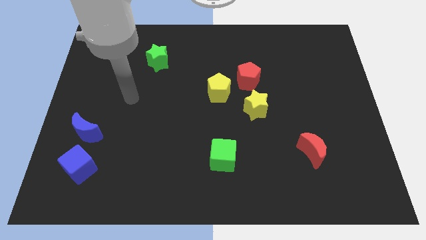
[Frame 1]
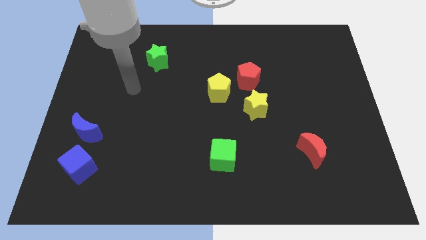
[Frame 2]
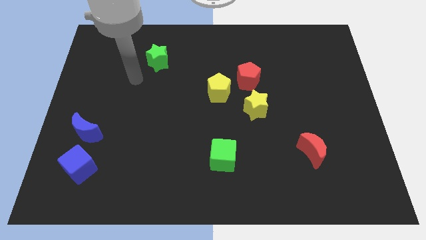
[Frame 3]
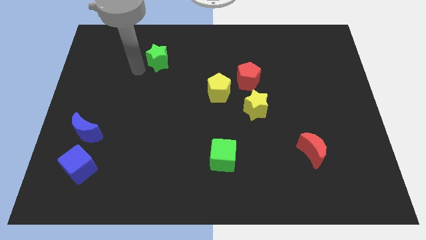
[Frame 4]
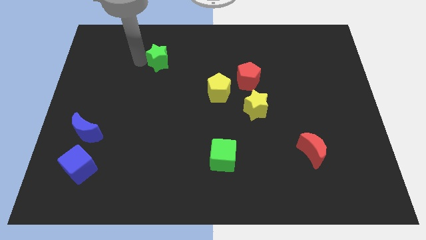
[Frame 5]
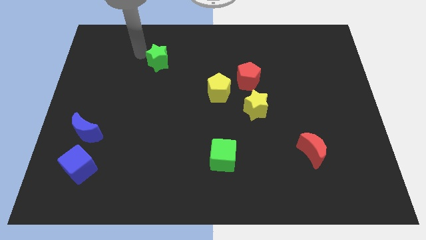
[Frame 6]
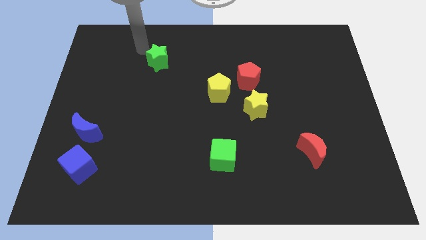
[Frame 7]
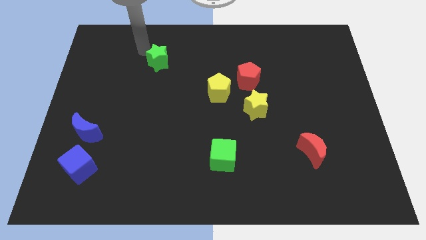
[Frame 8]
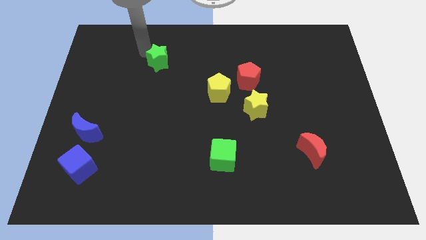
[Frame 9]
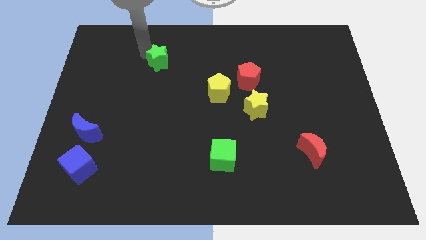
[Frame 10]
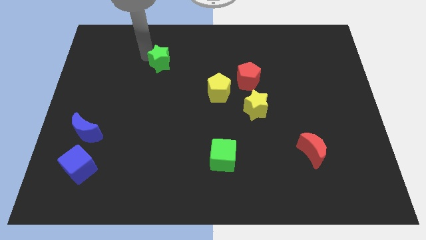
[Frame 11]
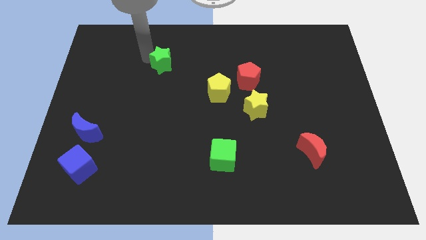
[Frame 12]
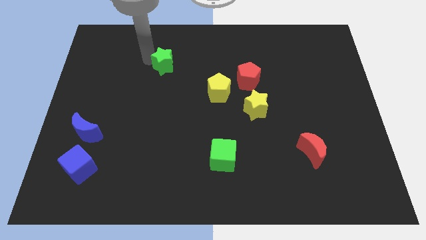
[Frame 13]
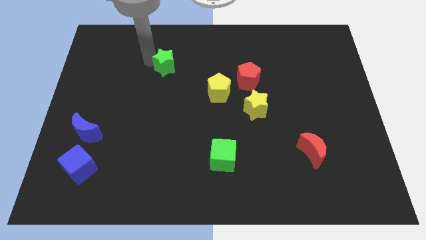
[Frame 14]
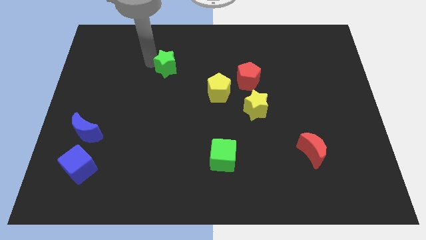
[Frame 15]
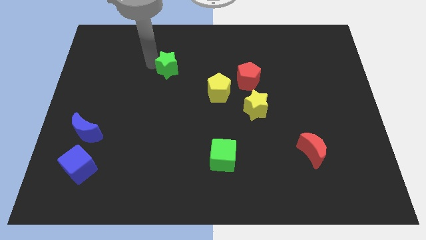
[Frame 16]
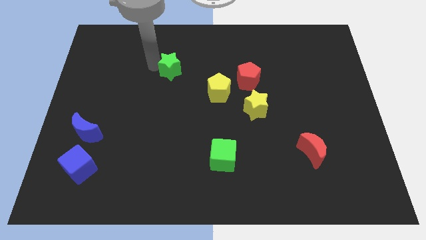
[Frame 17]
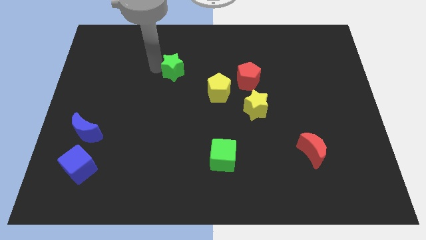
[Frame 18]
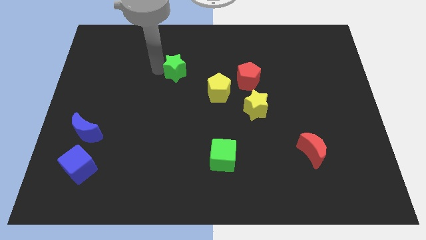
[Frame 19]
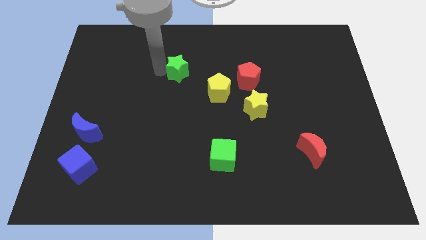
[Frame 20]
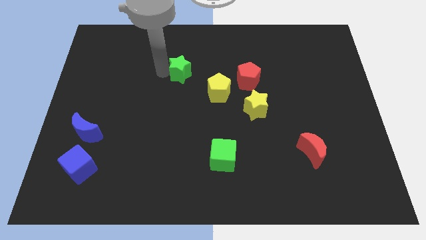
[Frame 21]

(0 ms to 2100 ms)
slightly push the green star downwards and right diagonally

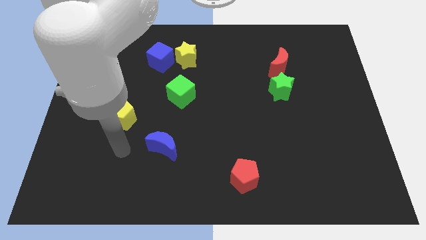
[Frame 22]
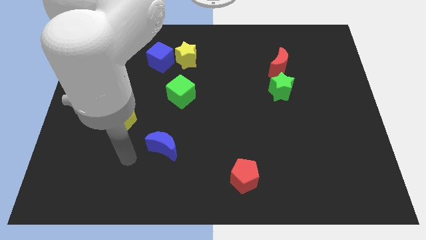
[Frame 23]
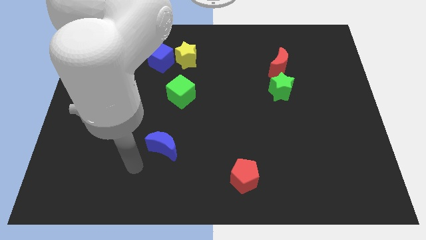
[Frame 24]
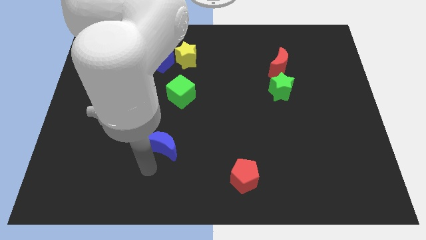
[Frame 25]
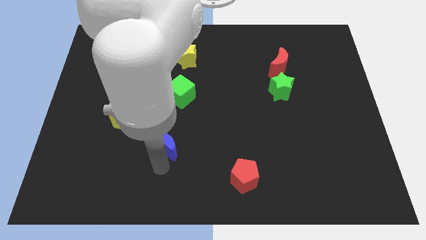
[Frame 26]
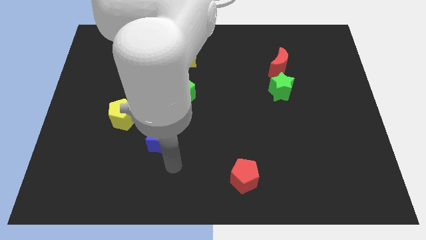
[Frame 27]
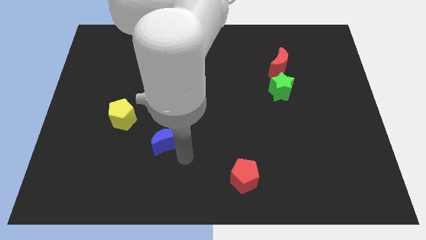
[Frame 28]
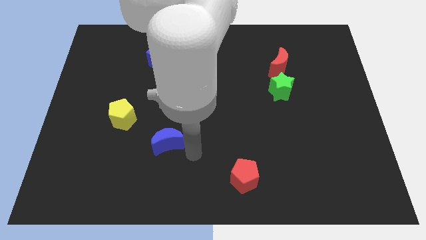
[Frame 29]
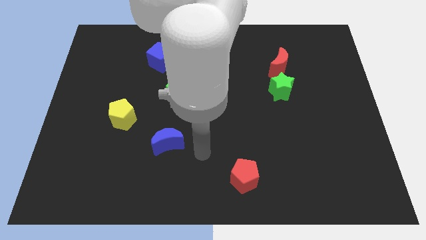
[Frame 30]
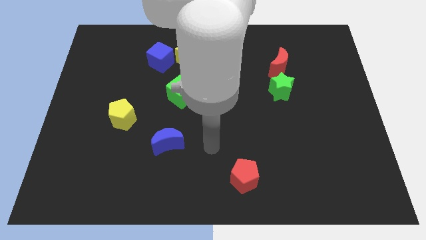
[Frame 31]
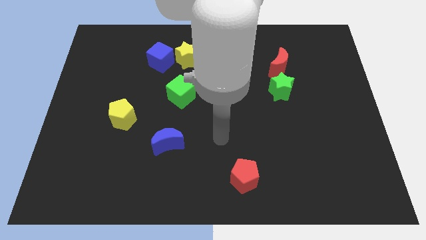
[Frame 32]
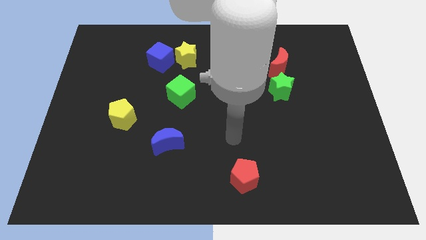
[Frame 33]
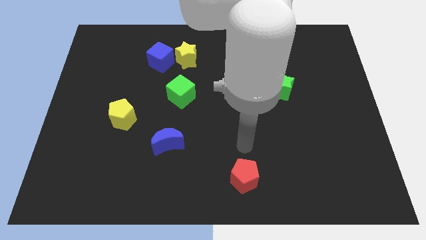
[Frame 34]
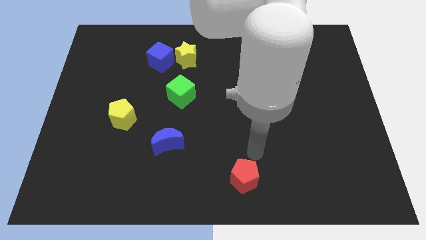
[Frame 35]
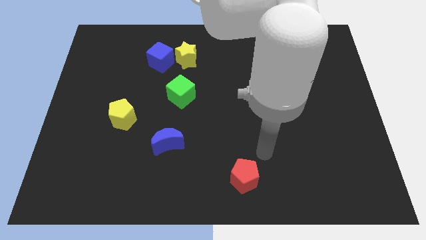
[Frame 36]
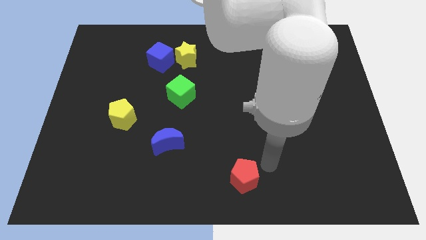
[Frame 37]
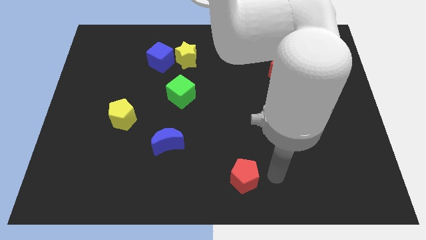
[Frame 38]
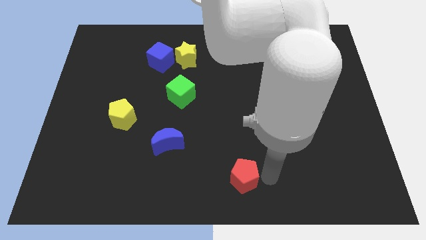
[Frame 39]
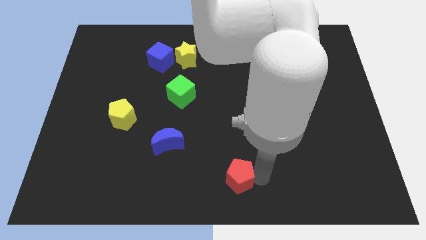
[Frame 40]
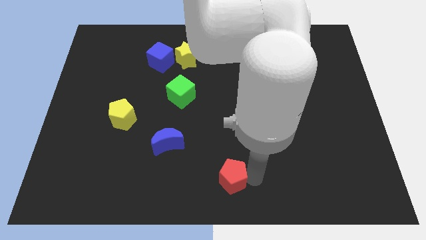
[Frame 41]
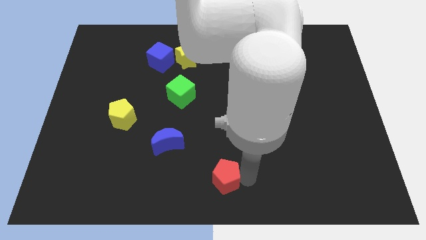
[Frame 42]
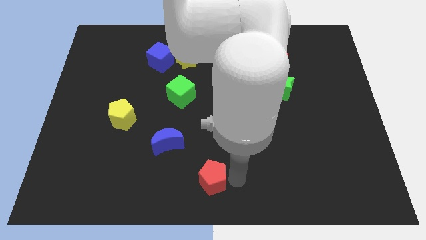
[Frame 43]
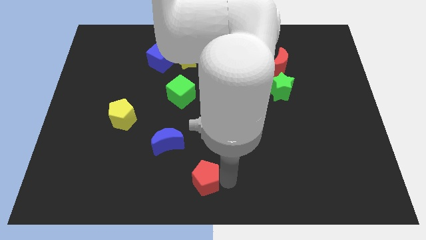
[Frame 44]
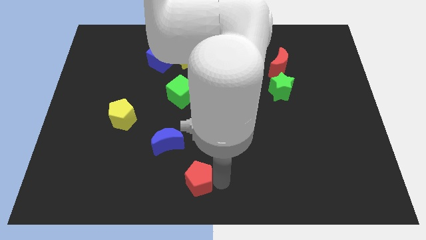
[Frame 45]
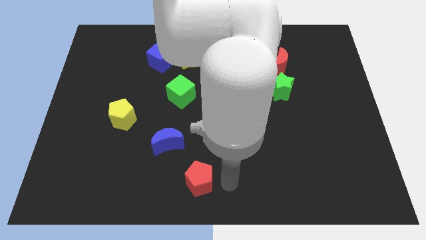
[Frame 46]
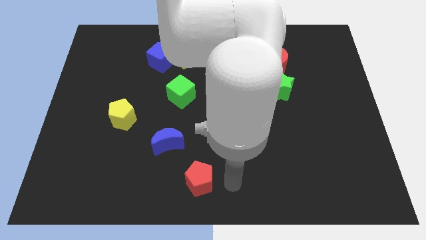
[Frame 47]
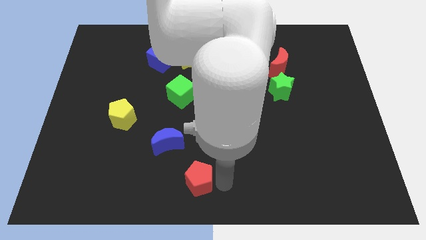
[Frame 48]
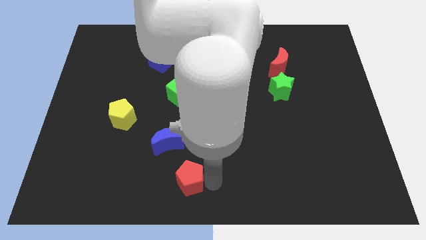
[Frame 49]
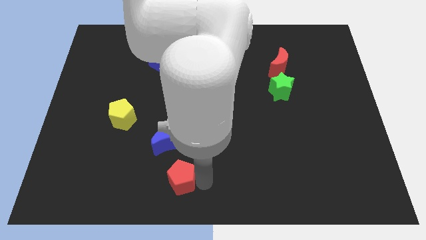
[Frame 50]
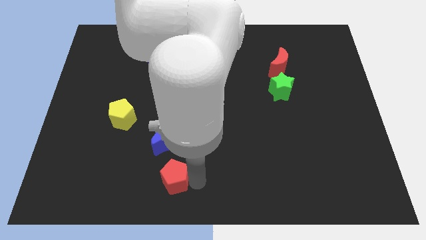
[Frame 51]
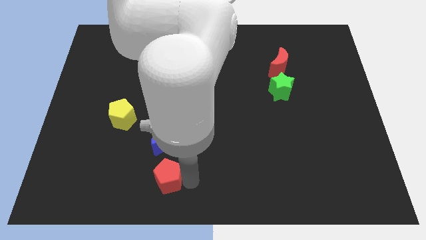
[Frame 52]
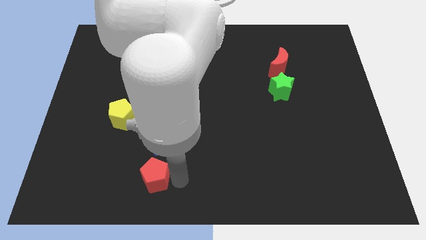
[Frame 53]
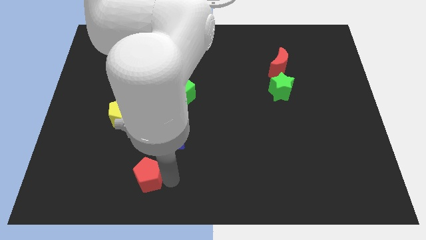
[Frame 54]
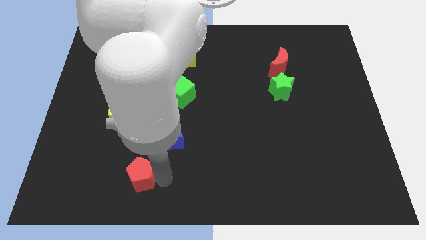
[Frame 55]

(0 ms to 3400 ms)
move the red pentagon left

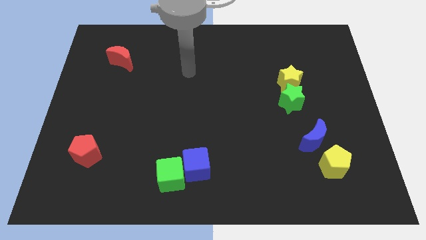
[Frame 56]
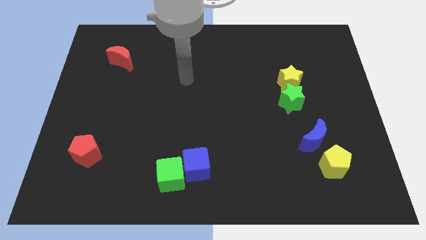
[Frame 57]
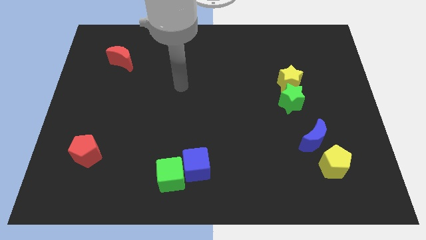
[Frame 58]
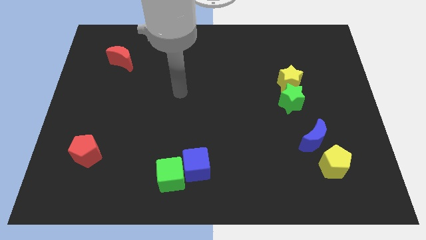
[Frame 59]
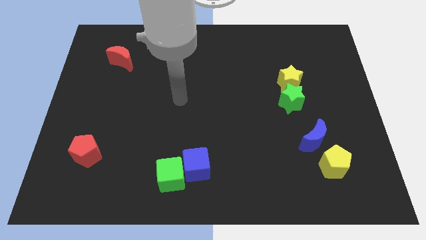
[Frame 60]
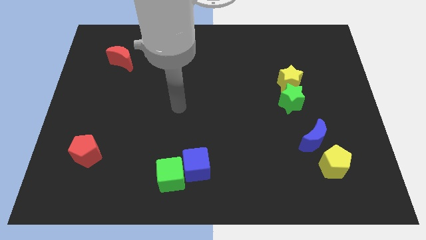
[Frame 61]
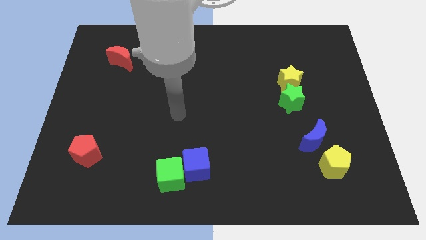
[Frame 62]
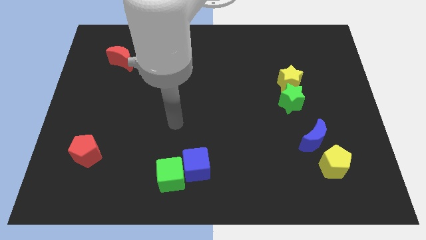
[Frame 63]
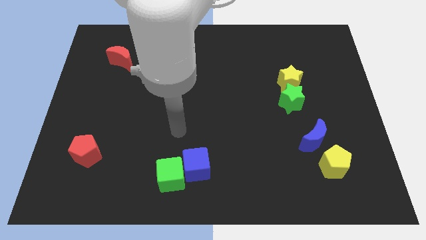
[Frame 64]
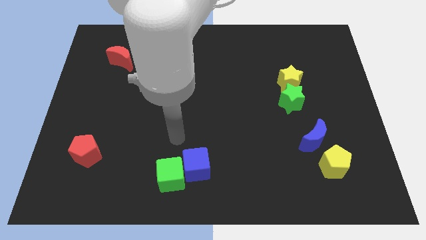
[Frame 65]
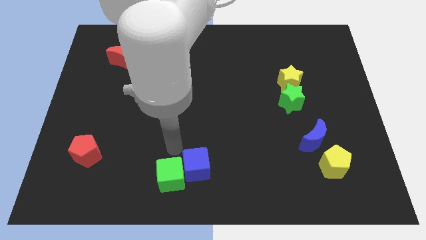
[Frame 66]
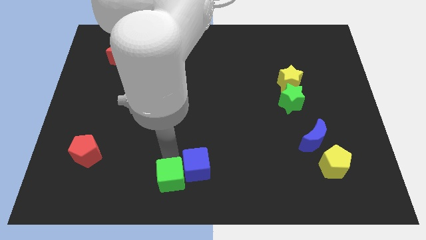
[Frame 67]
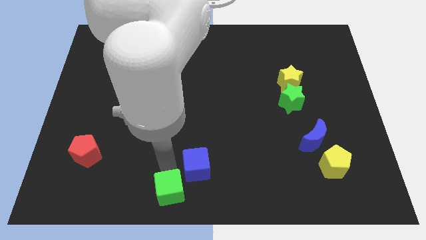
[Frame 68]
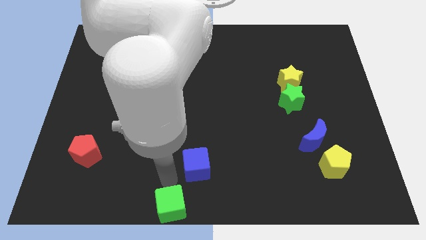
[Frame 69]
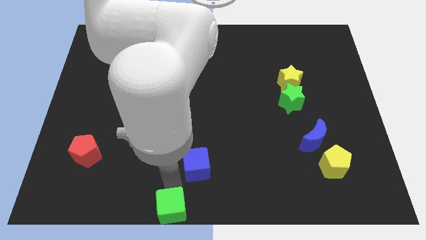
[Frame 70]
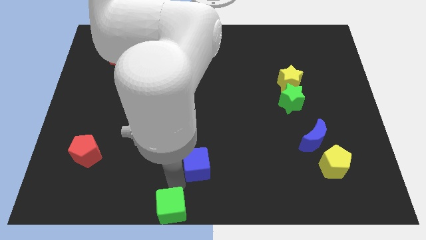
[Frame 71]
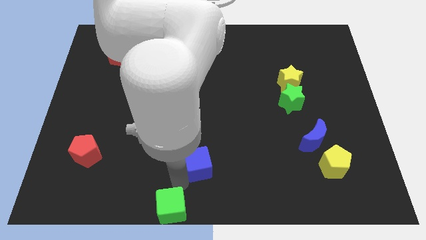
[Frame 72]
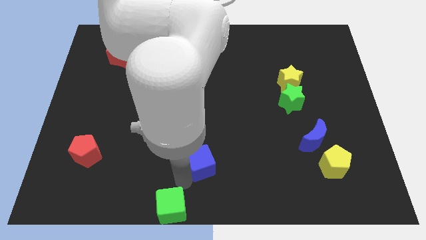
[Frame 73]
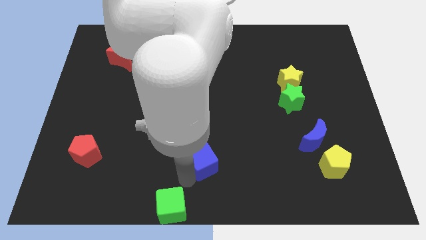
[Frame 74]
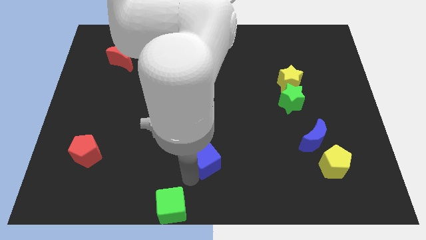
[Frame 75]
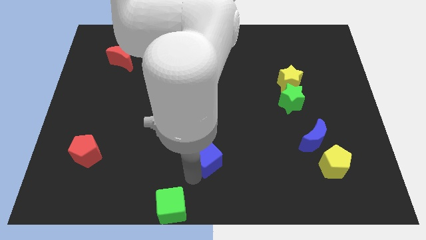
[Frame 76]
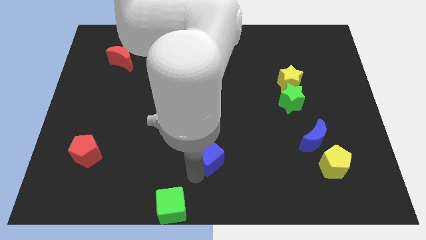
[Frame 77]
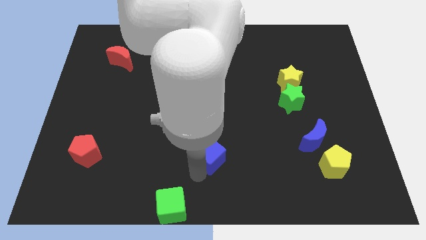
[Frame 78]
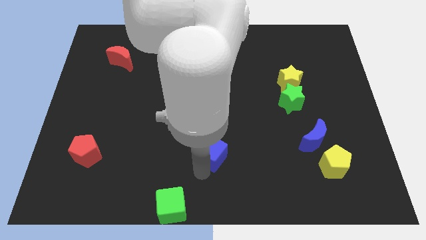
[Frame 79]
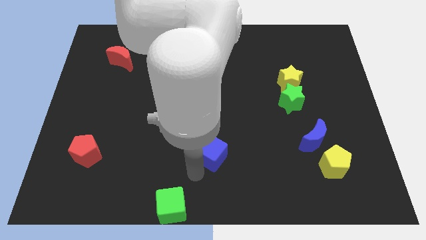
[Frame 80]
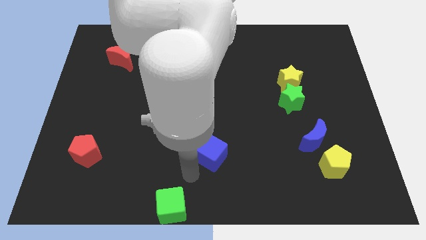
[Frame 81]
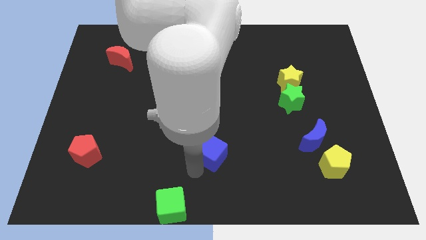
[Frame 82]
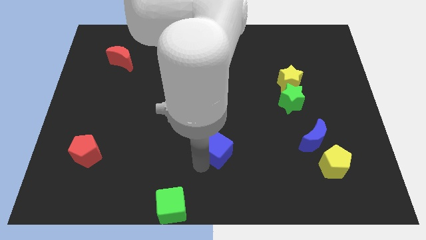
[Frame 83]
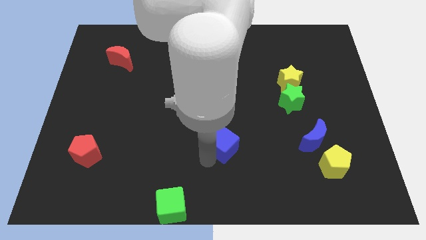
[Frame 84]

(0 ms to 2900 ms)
slide the blue cube somewhat up and then to the right
